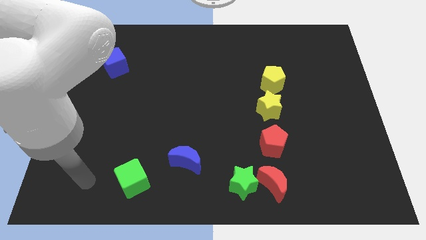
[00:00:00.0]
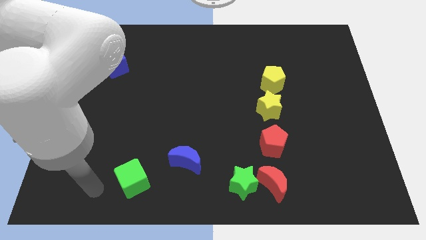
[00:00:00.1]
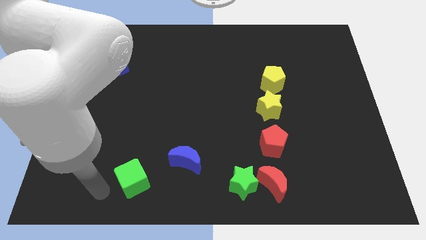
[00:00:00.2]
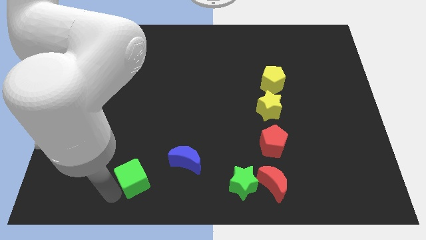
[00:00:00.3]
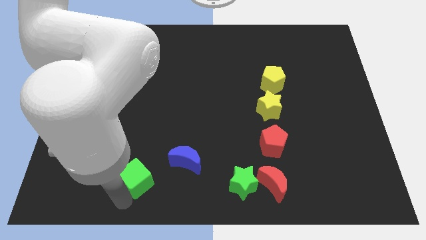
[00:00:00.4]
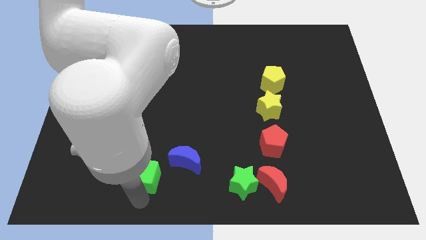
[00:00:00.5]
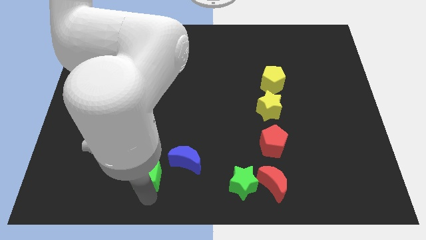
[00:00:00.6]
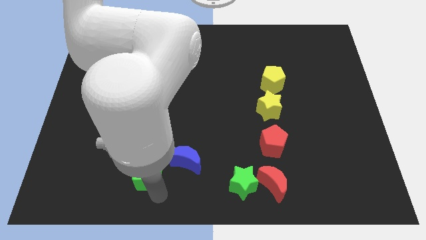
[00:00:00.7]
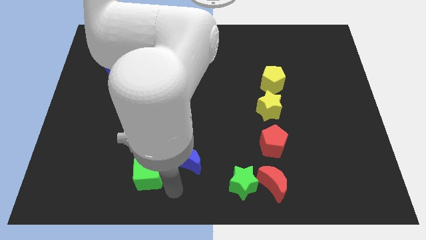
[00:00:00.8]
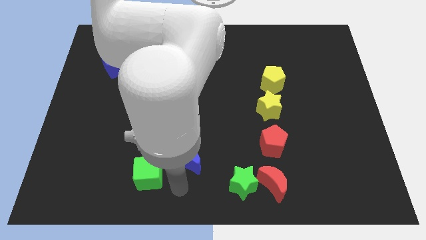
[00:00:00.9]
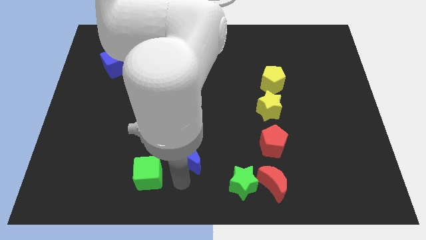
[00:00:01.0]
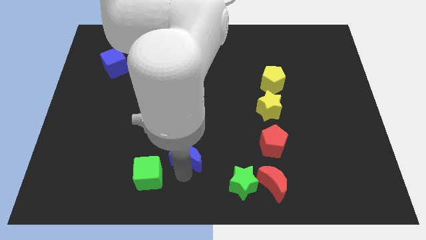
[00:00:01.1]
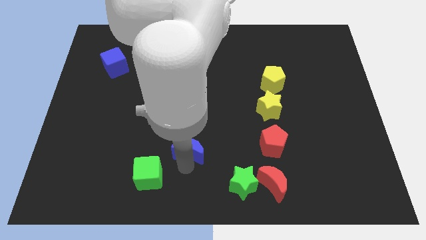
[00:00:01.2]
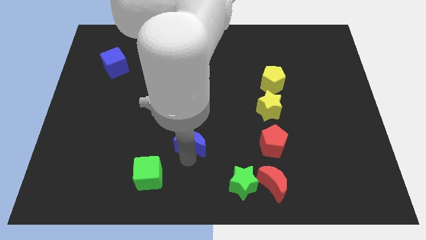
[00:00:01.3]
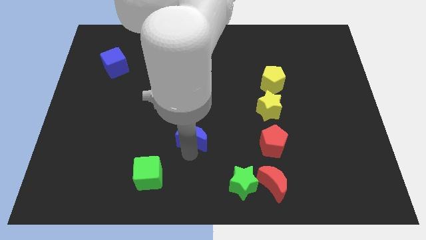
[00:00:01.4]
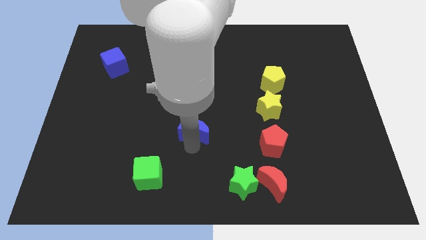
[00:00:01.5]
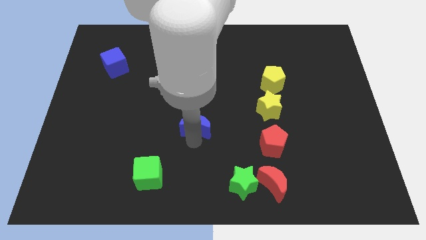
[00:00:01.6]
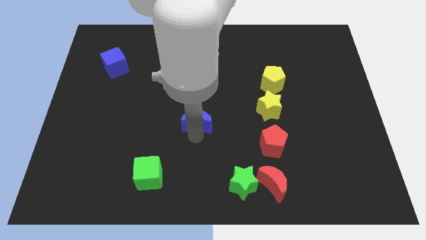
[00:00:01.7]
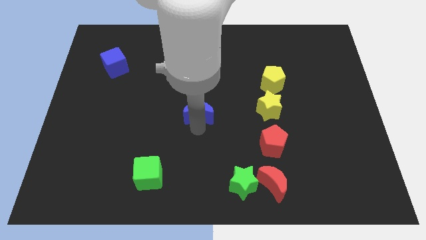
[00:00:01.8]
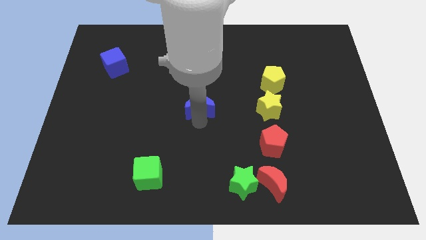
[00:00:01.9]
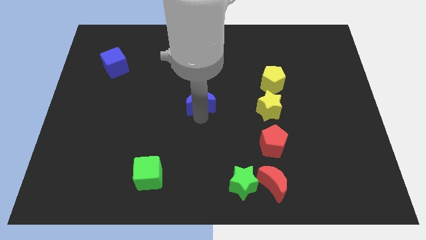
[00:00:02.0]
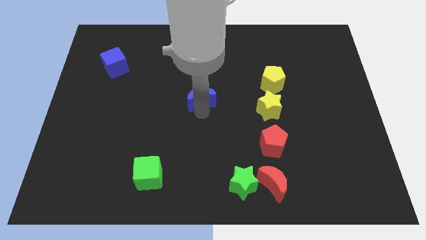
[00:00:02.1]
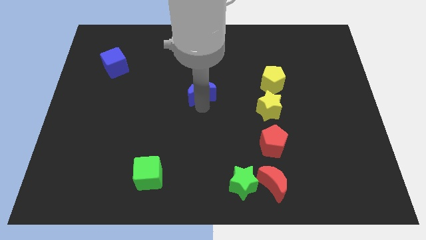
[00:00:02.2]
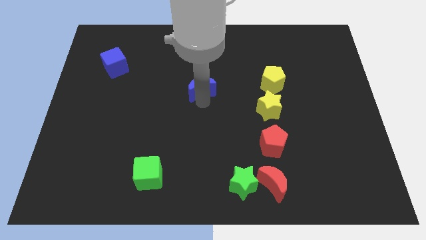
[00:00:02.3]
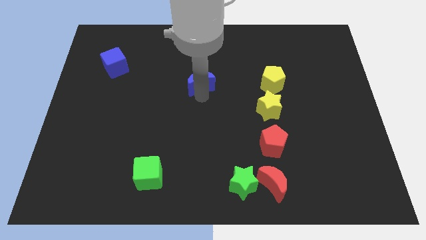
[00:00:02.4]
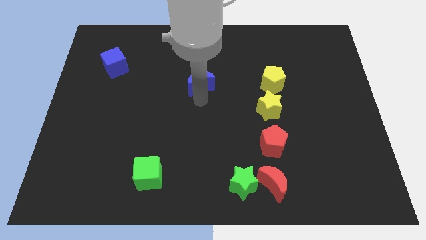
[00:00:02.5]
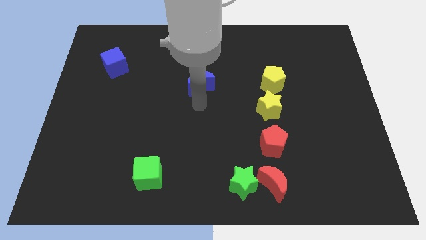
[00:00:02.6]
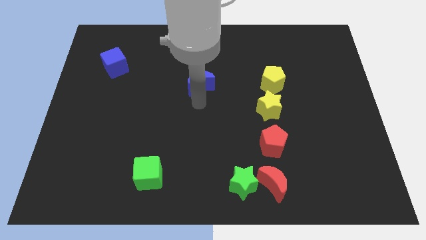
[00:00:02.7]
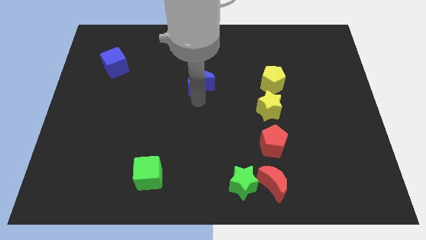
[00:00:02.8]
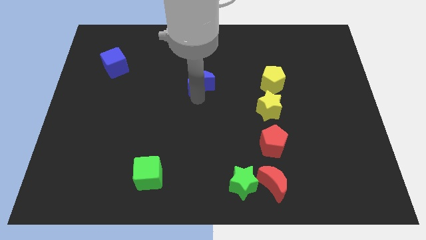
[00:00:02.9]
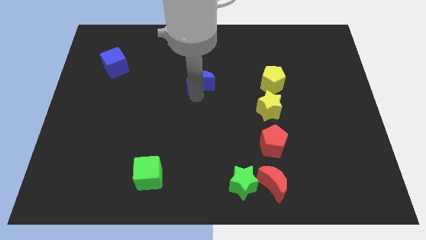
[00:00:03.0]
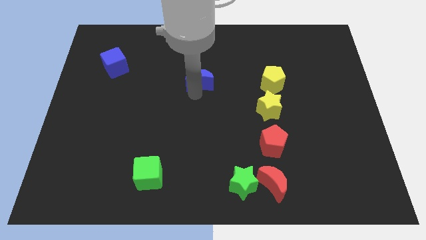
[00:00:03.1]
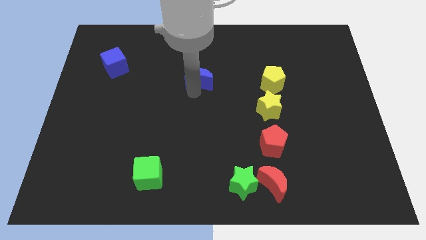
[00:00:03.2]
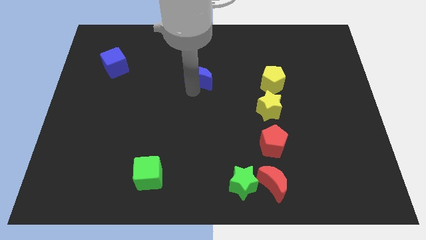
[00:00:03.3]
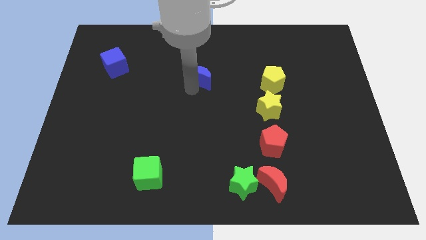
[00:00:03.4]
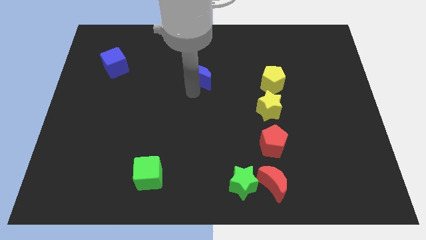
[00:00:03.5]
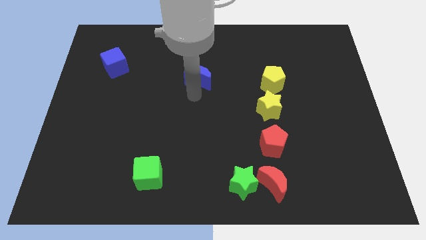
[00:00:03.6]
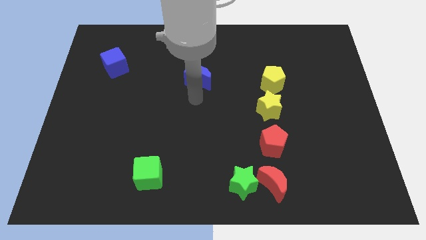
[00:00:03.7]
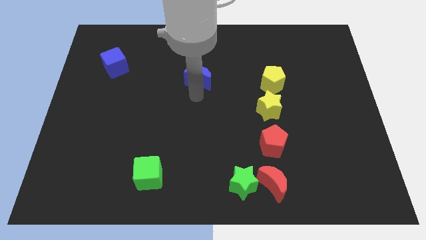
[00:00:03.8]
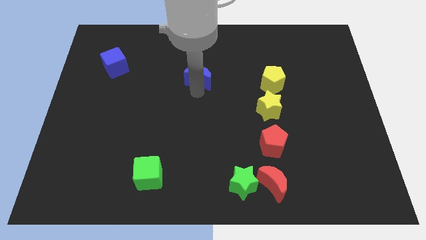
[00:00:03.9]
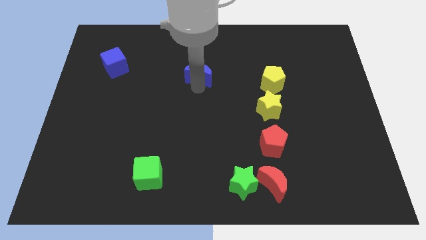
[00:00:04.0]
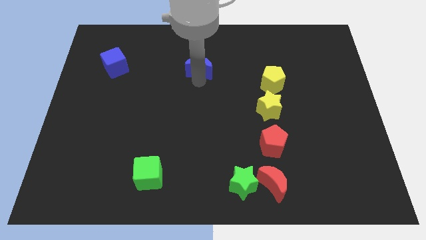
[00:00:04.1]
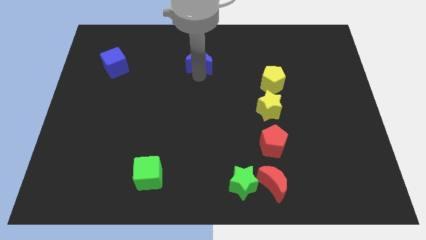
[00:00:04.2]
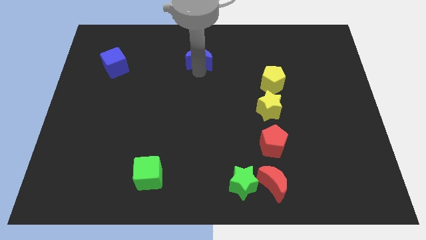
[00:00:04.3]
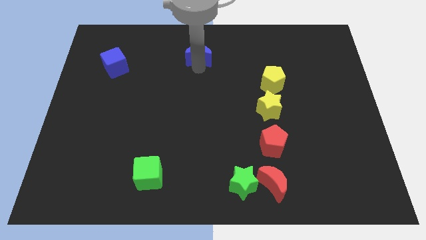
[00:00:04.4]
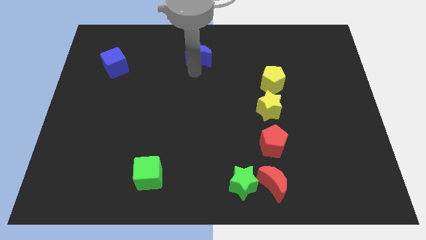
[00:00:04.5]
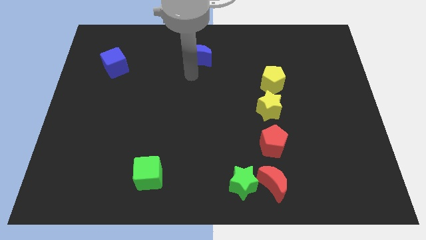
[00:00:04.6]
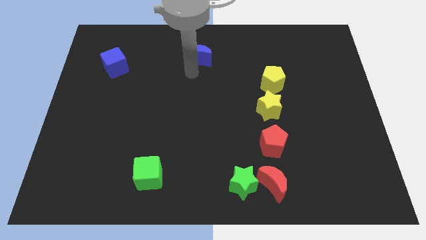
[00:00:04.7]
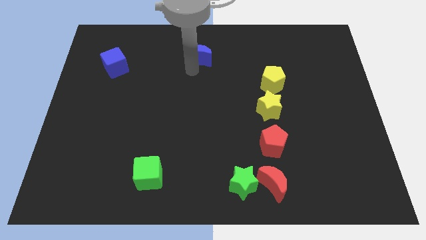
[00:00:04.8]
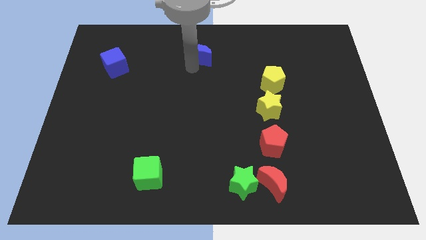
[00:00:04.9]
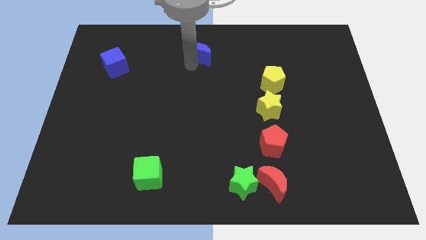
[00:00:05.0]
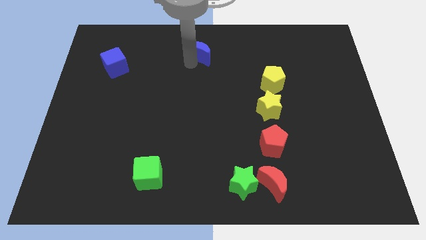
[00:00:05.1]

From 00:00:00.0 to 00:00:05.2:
move the blue moon to the towards your base

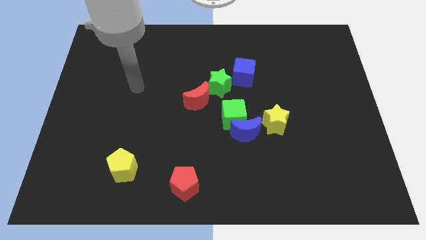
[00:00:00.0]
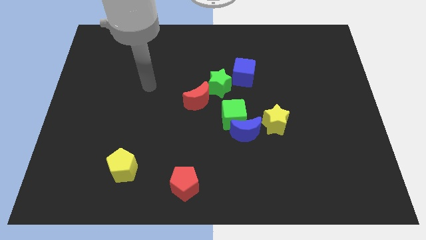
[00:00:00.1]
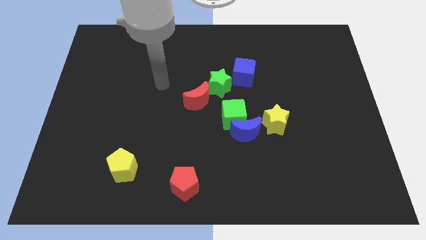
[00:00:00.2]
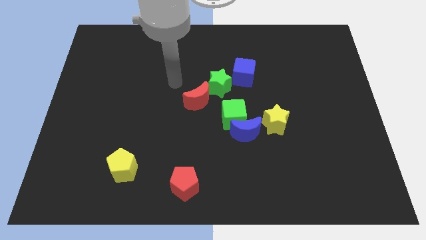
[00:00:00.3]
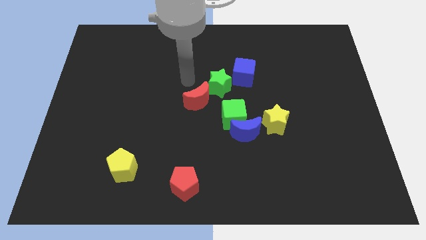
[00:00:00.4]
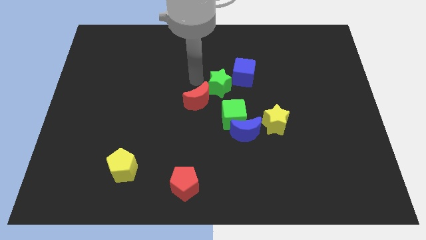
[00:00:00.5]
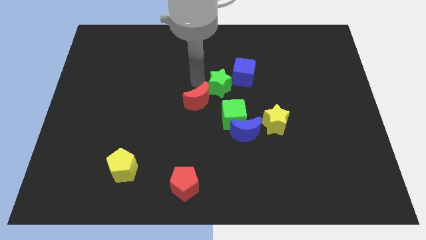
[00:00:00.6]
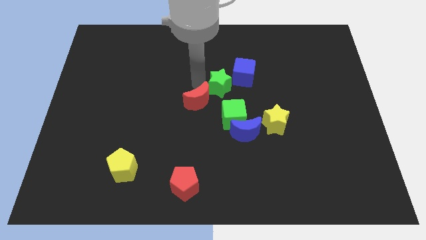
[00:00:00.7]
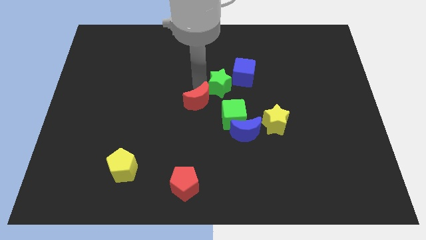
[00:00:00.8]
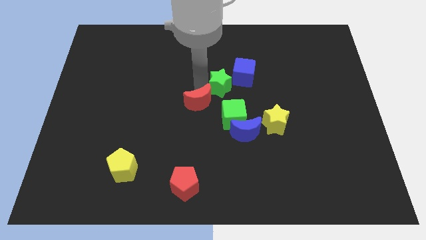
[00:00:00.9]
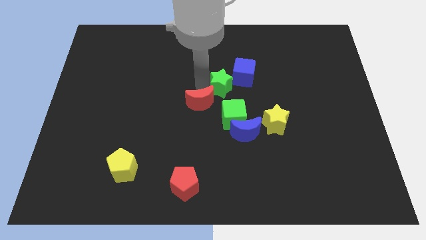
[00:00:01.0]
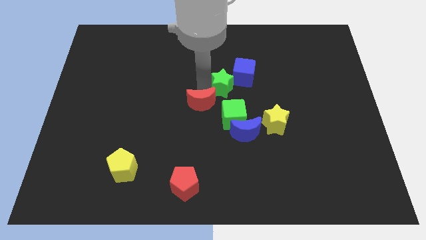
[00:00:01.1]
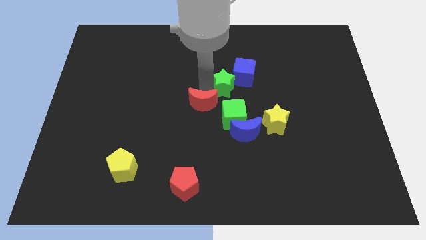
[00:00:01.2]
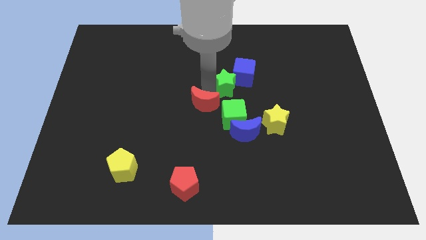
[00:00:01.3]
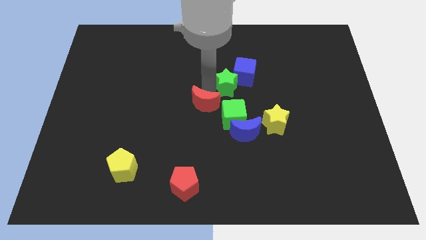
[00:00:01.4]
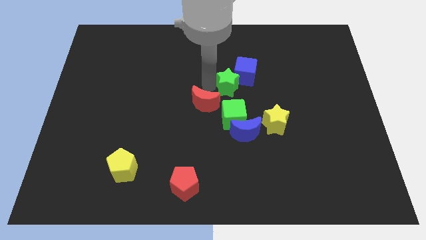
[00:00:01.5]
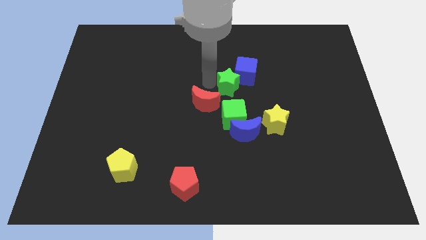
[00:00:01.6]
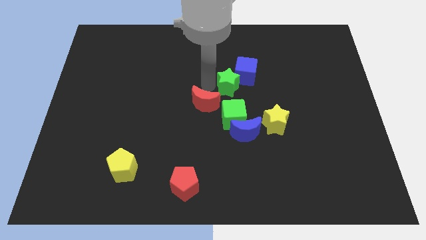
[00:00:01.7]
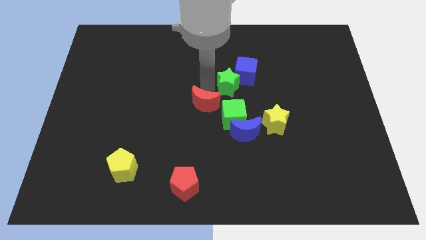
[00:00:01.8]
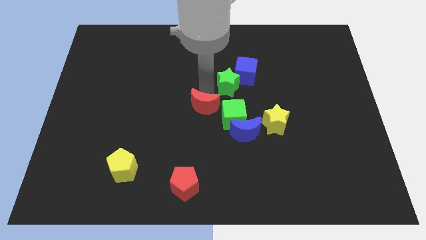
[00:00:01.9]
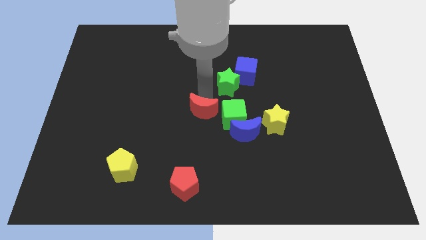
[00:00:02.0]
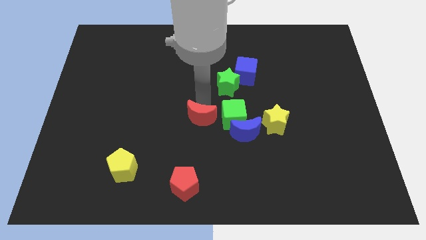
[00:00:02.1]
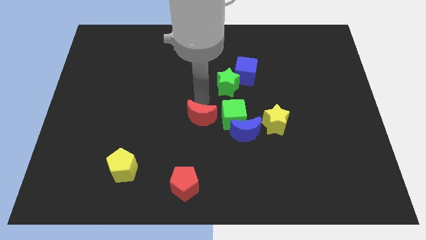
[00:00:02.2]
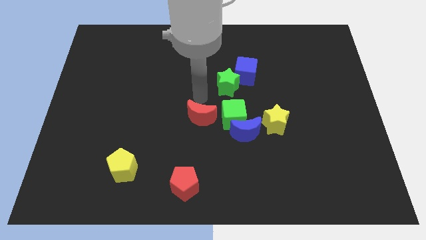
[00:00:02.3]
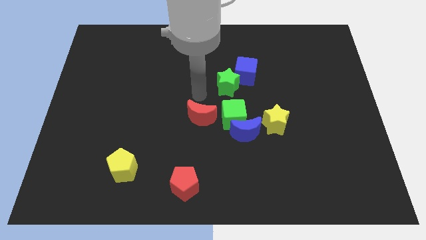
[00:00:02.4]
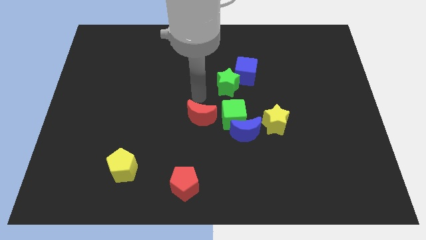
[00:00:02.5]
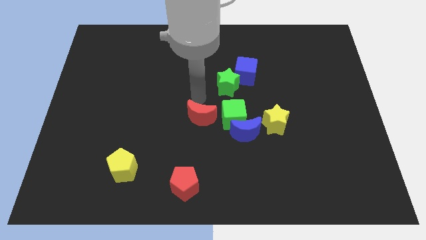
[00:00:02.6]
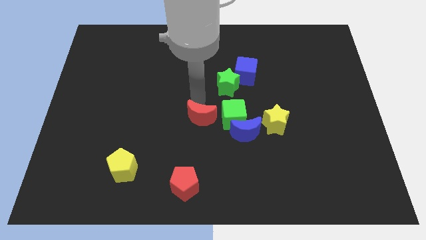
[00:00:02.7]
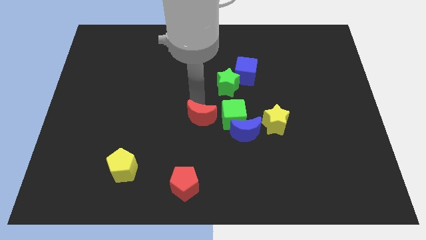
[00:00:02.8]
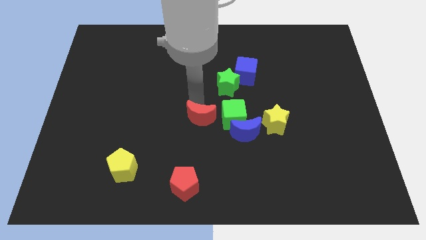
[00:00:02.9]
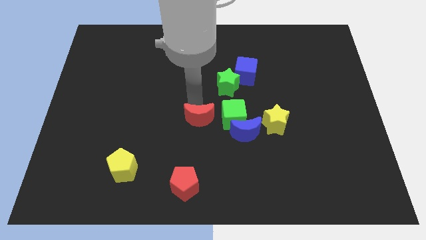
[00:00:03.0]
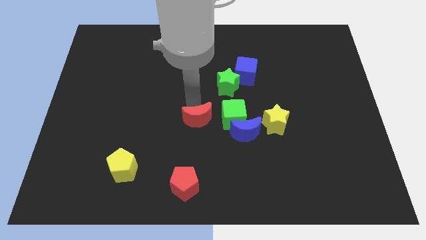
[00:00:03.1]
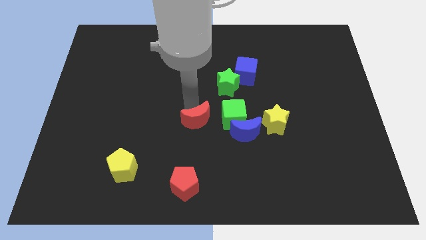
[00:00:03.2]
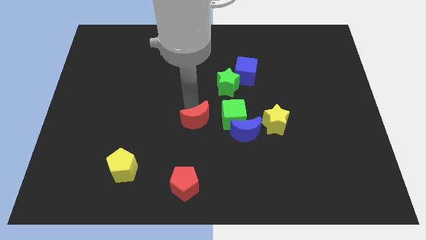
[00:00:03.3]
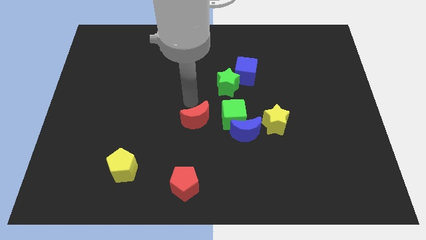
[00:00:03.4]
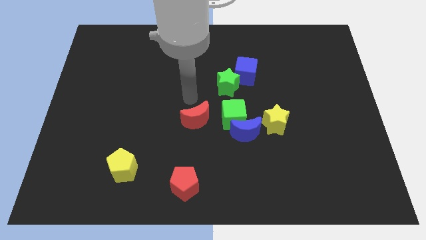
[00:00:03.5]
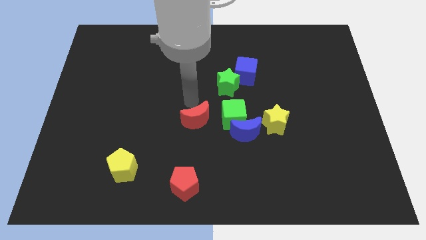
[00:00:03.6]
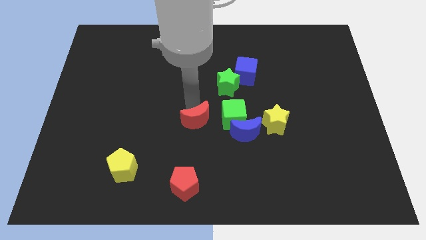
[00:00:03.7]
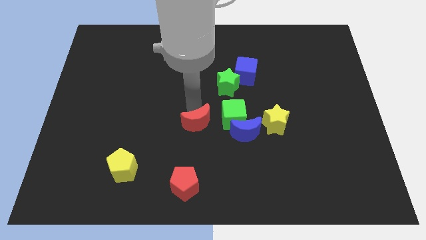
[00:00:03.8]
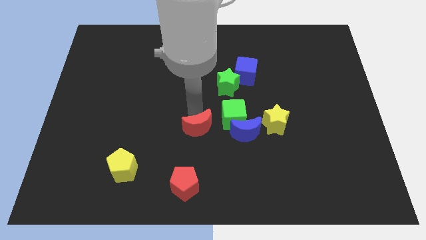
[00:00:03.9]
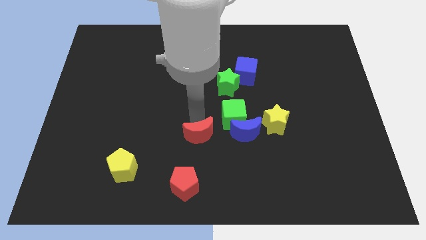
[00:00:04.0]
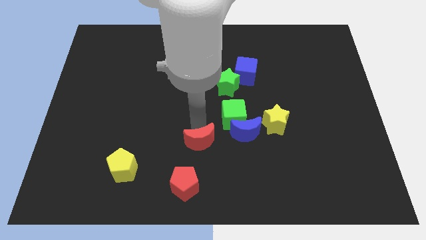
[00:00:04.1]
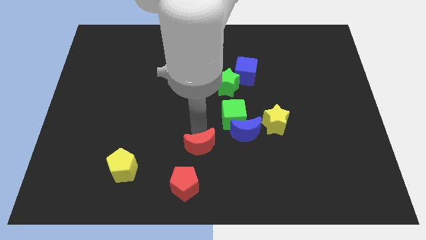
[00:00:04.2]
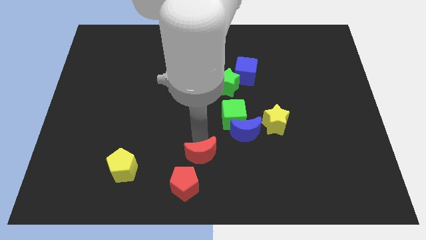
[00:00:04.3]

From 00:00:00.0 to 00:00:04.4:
push the red moon to the bottom side
